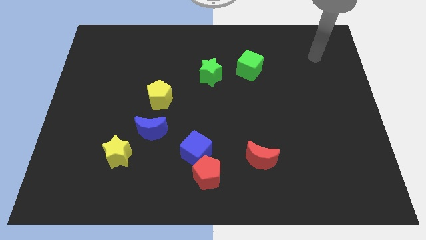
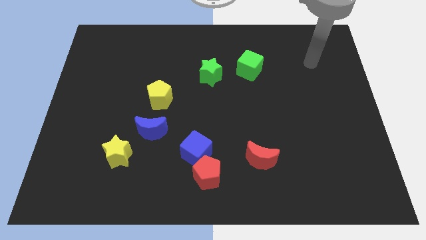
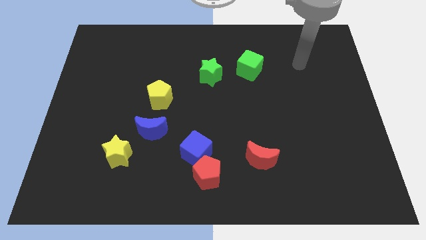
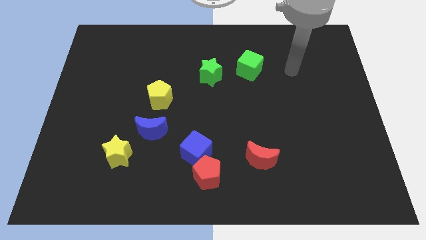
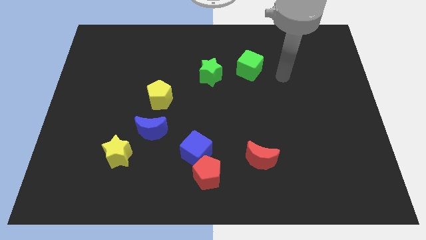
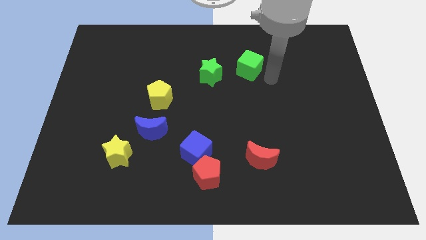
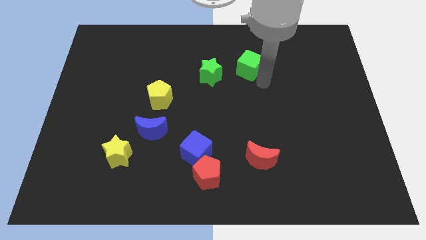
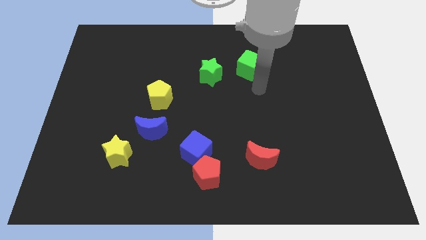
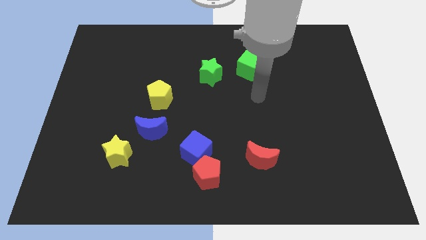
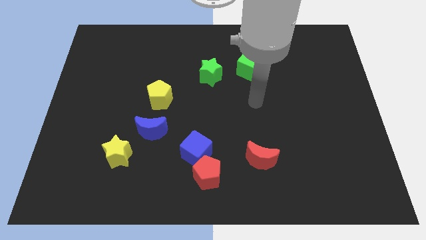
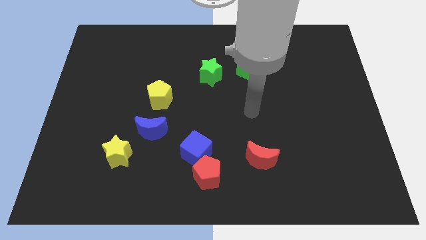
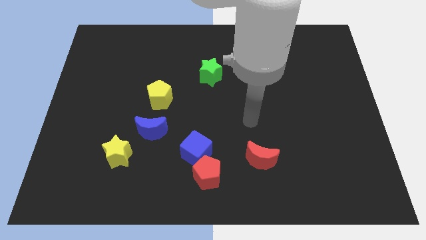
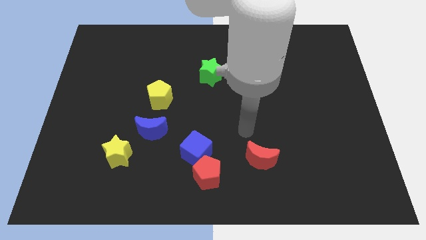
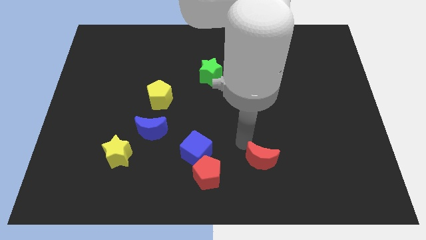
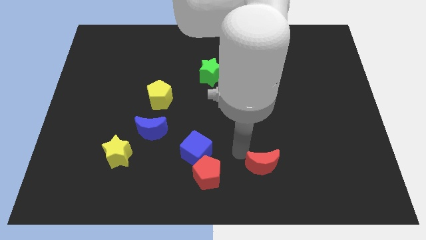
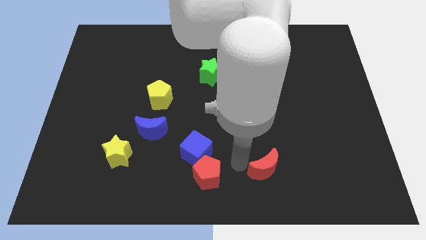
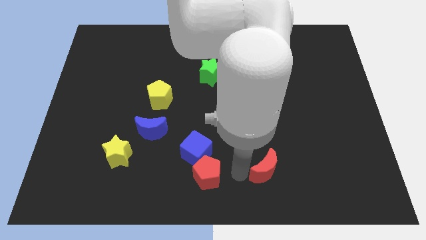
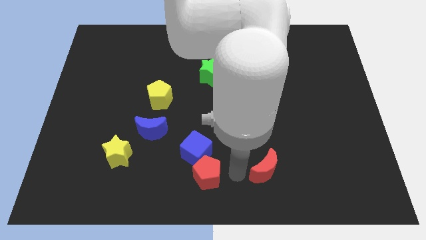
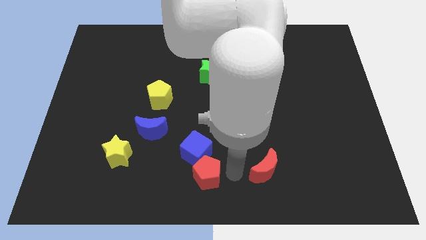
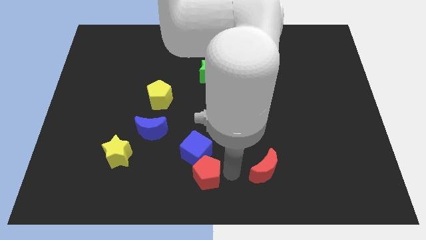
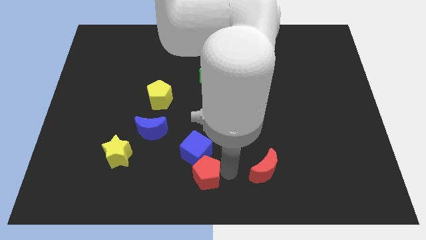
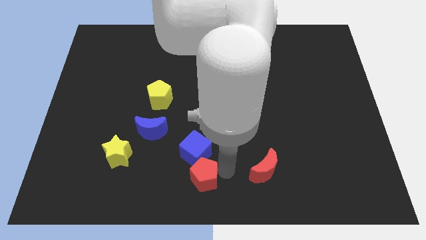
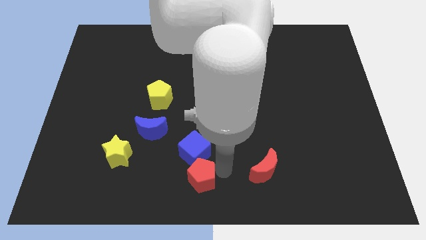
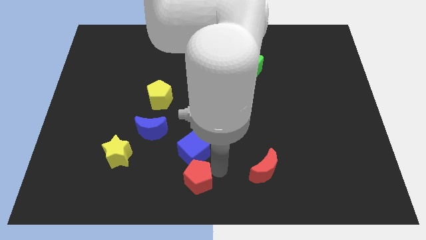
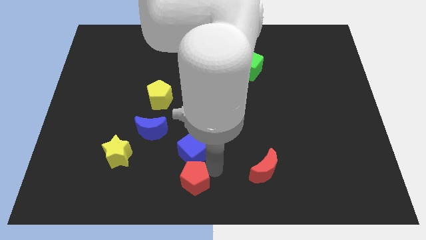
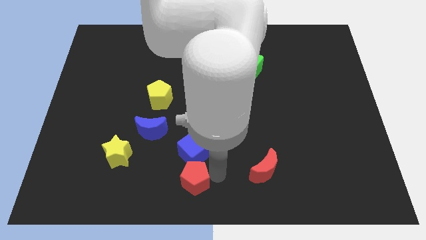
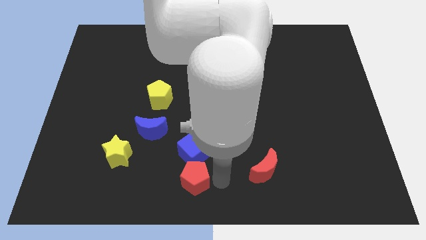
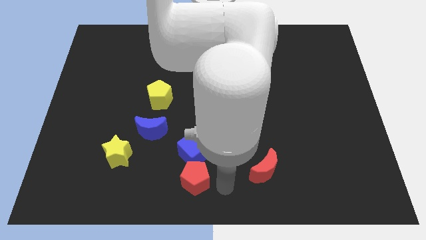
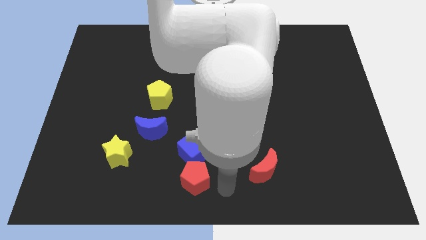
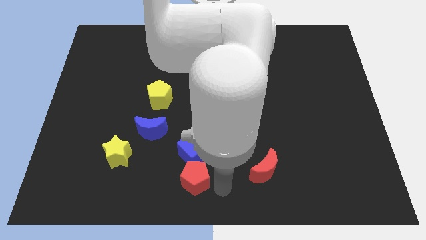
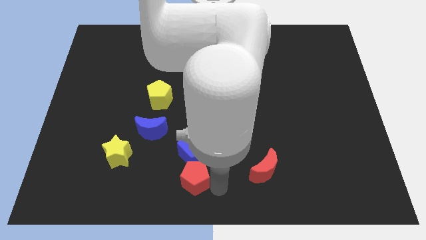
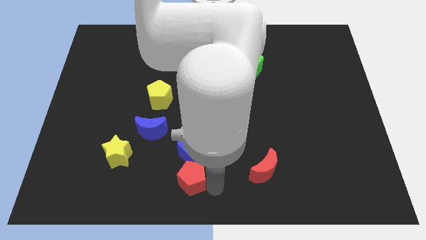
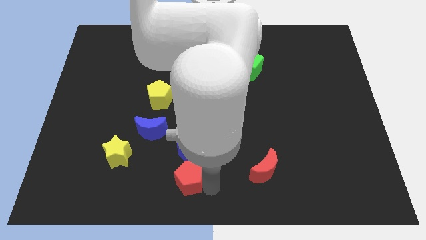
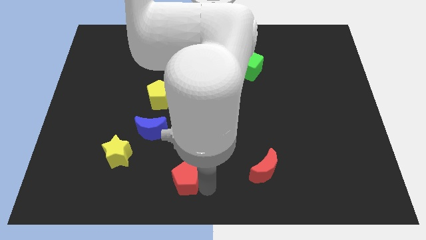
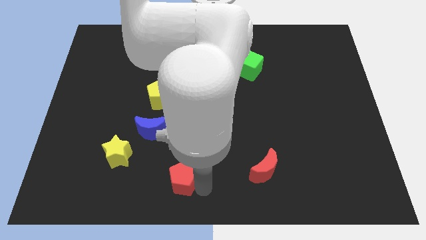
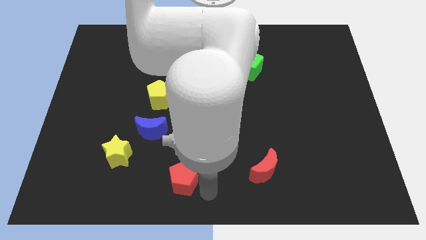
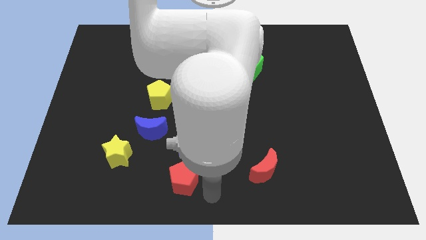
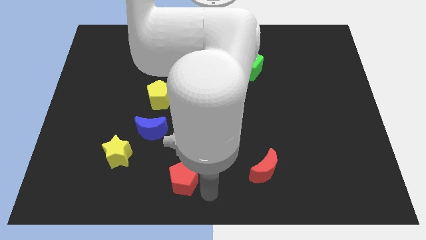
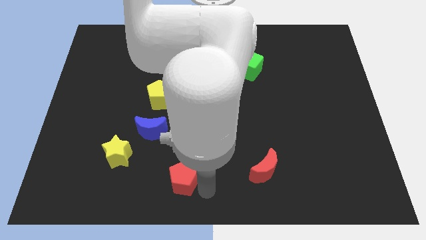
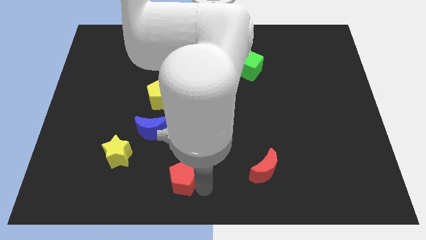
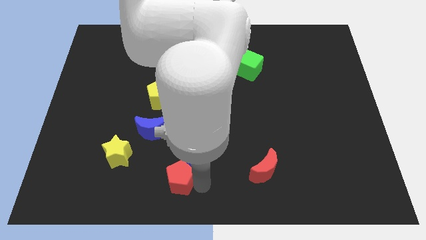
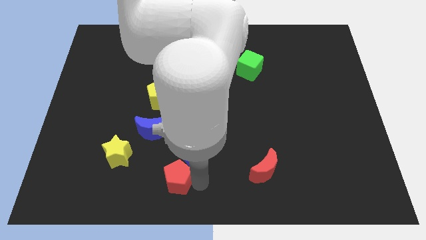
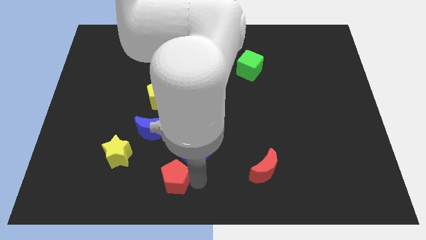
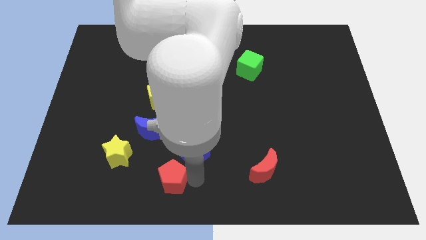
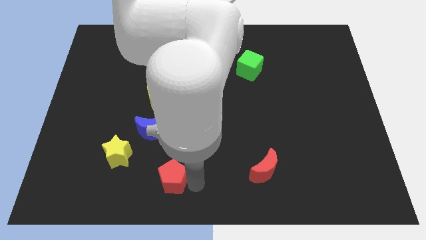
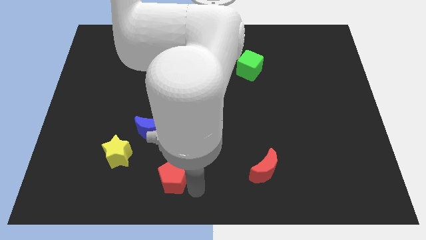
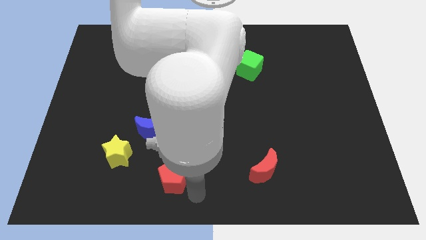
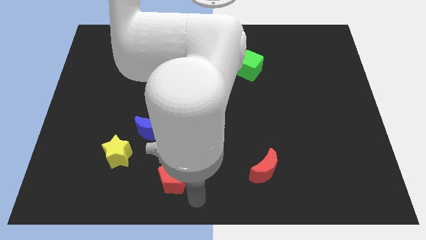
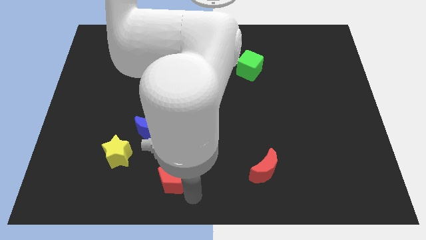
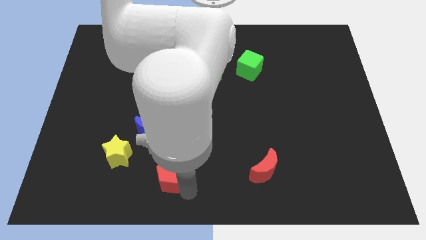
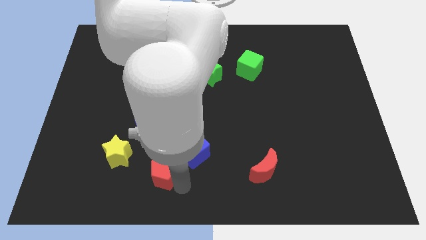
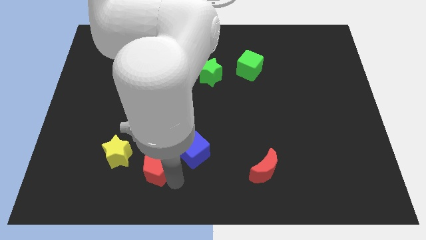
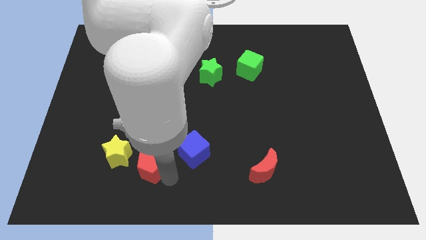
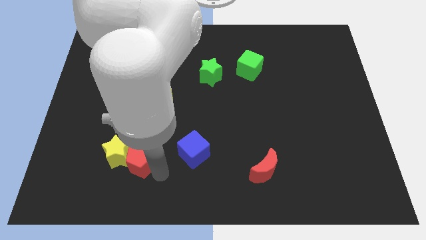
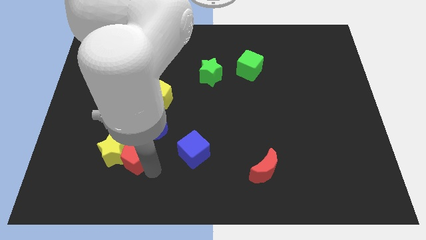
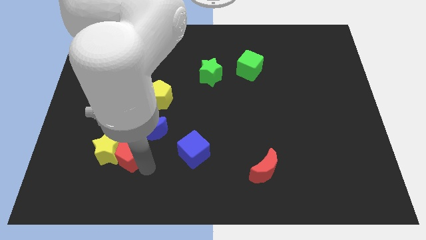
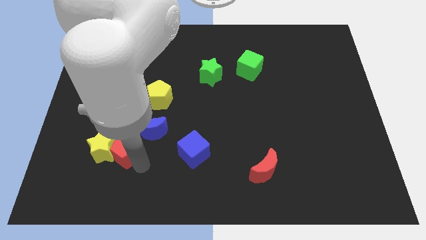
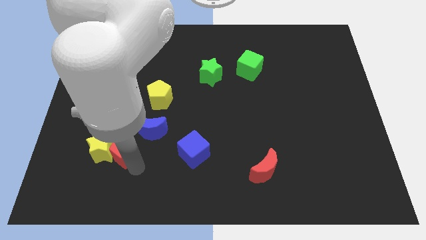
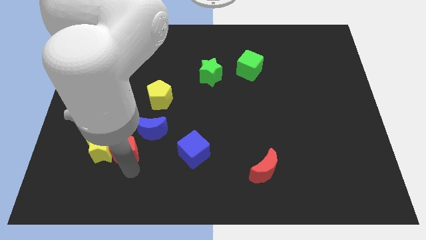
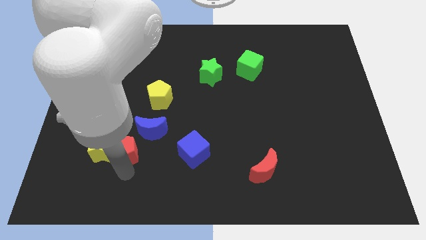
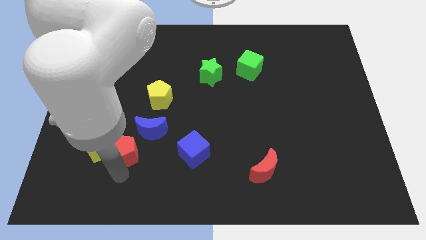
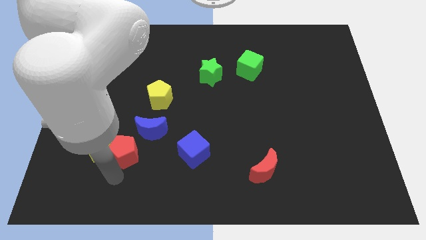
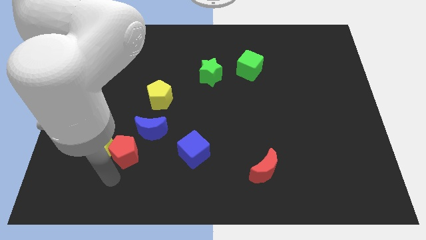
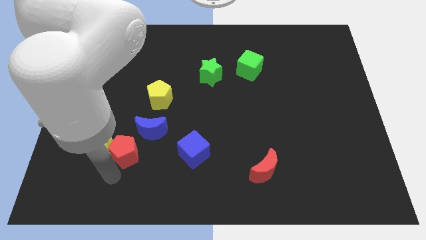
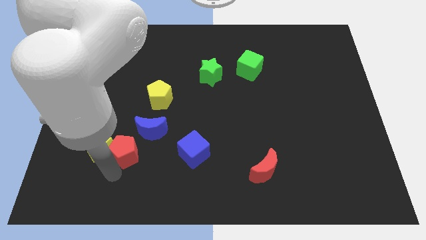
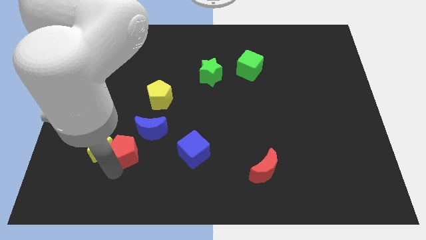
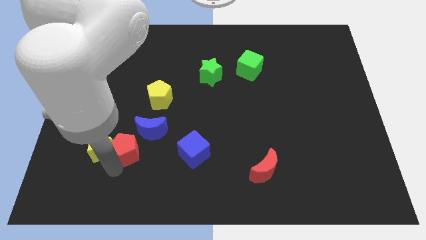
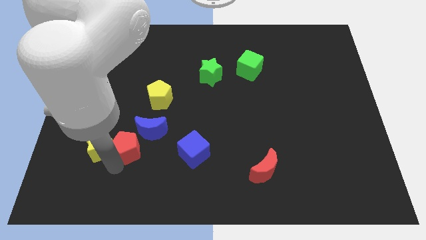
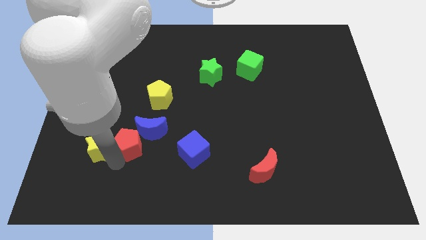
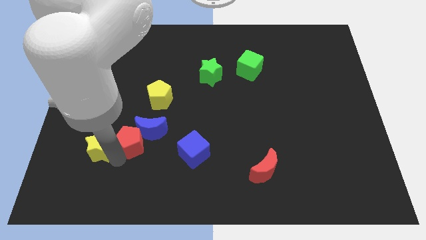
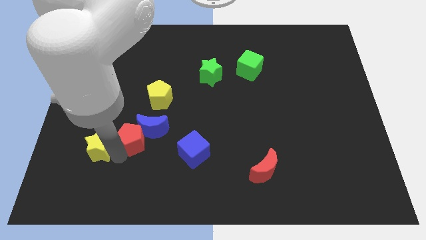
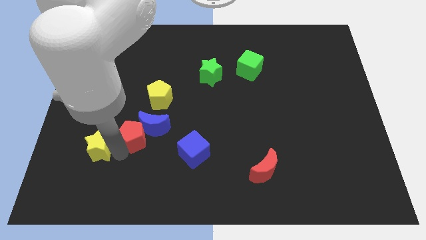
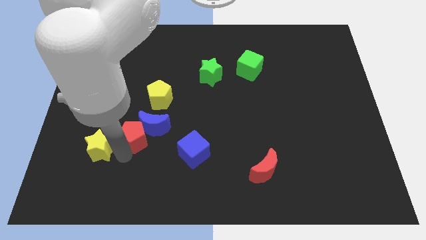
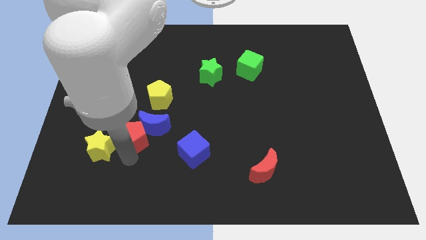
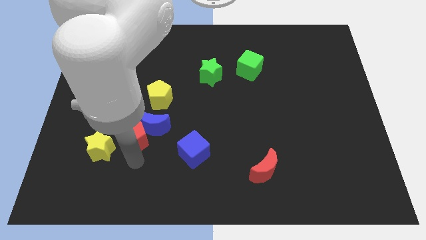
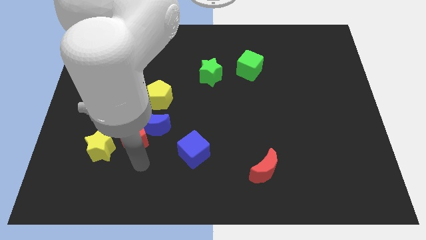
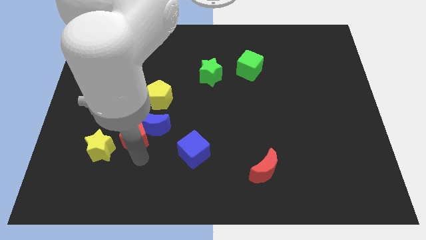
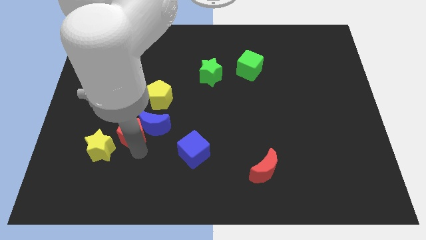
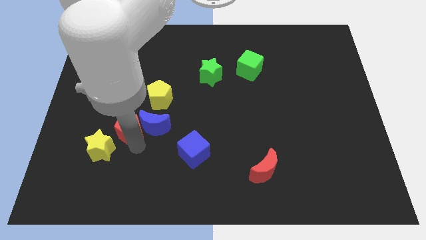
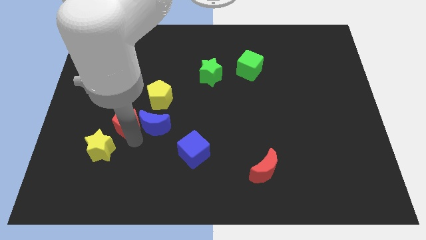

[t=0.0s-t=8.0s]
slide the red pentagon up and to the left

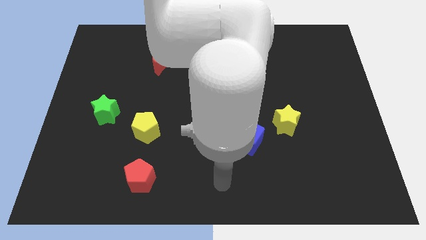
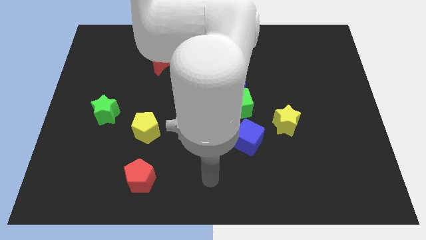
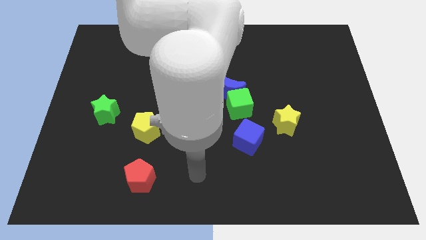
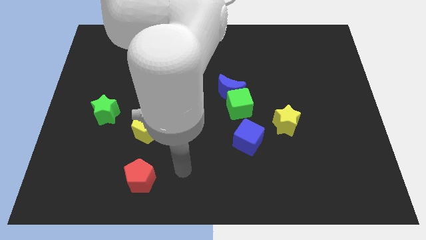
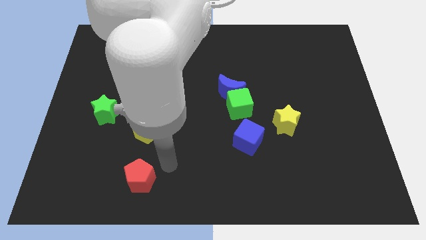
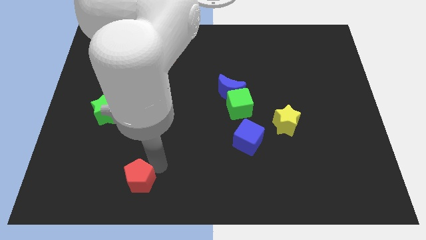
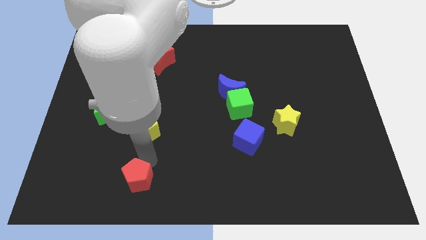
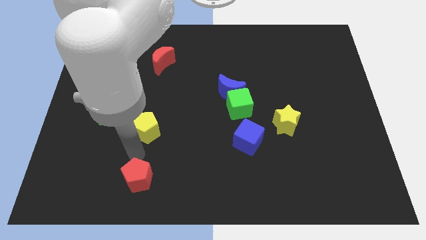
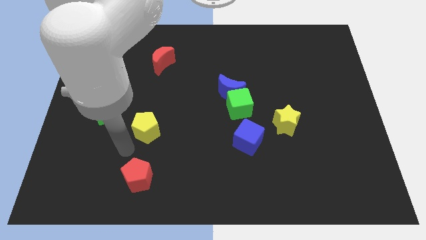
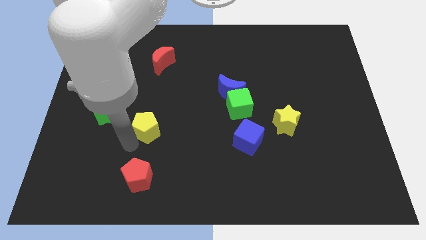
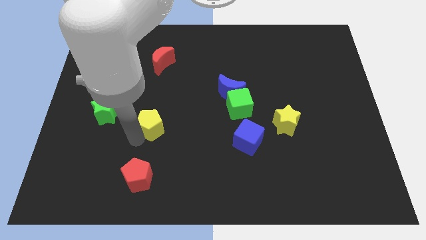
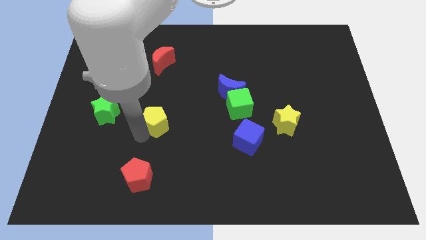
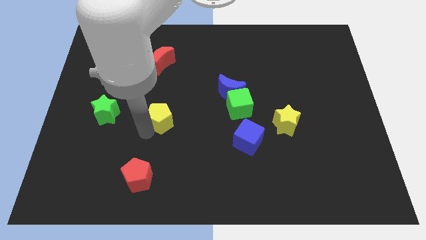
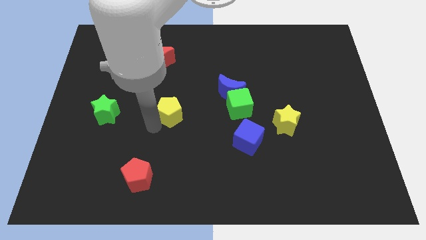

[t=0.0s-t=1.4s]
slightly slide the yellow pentagon upwards and right diagonally
